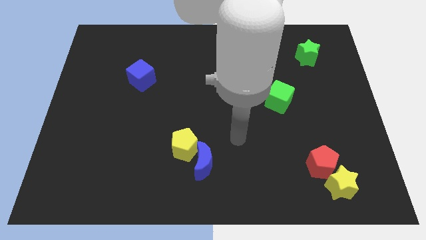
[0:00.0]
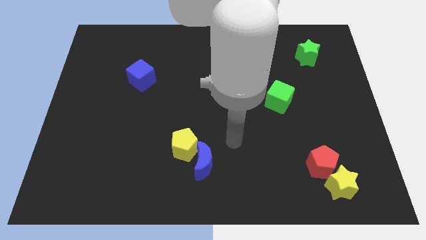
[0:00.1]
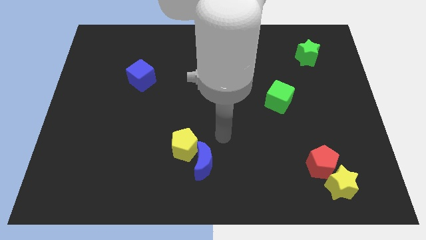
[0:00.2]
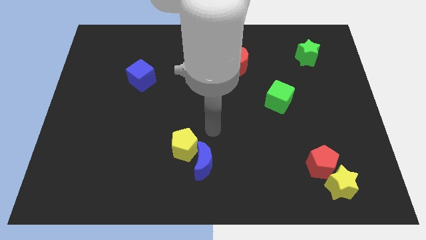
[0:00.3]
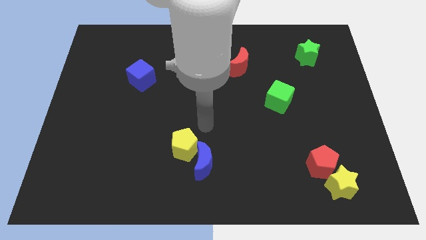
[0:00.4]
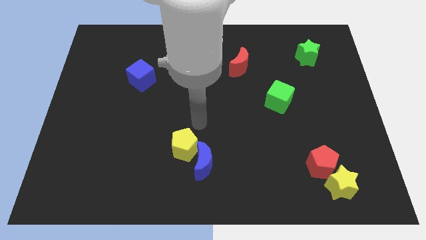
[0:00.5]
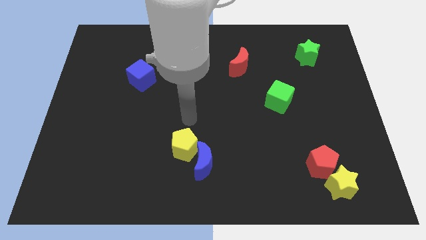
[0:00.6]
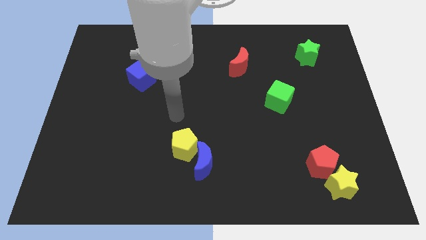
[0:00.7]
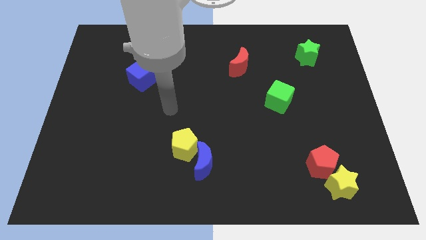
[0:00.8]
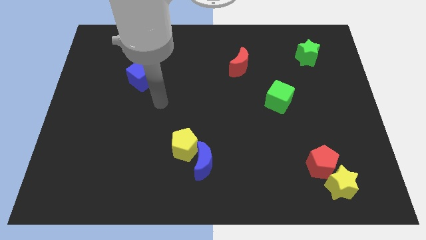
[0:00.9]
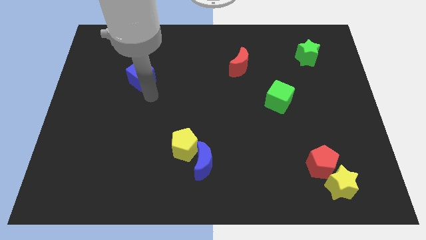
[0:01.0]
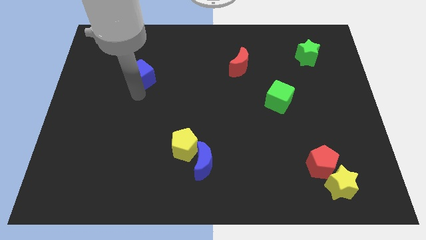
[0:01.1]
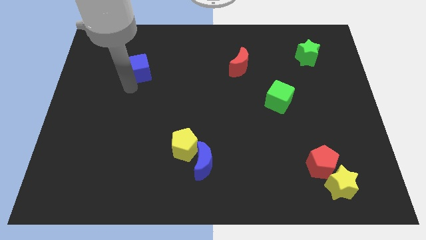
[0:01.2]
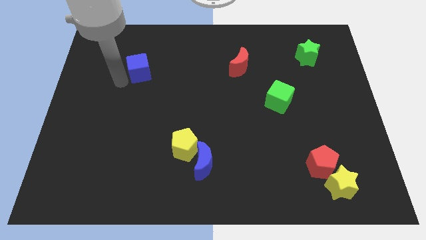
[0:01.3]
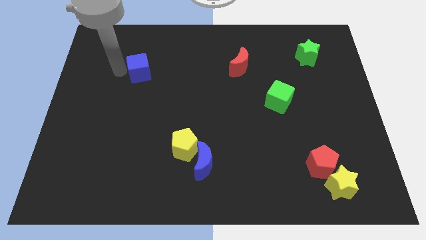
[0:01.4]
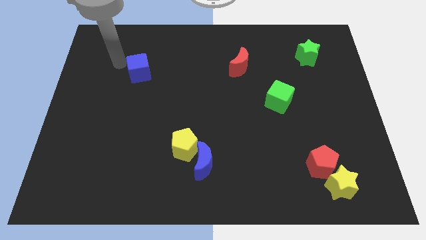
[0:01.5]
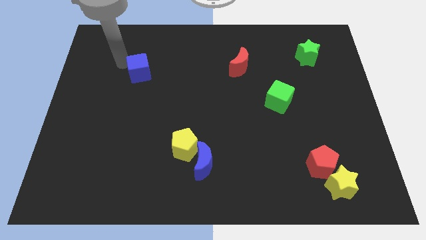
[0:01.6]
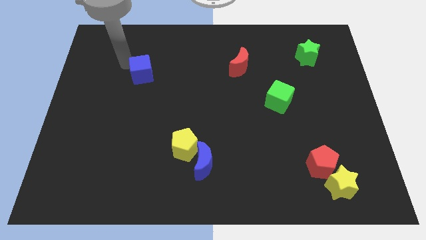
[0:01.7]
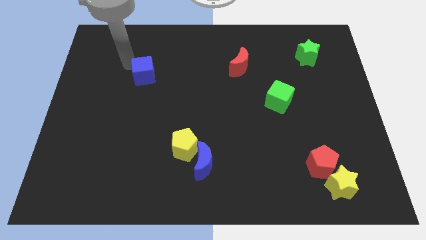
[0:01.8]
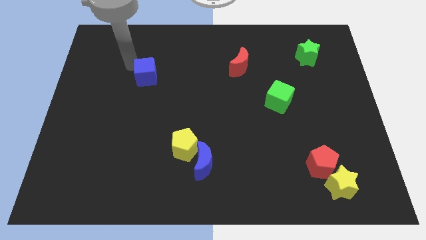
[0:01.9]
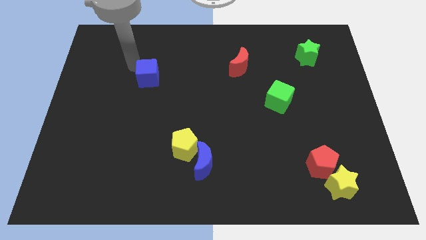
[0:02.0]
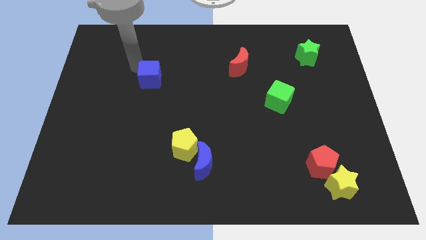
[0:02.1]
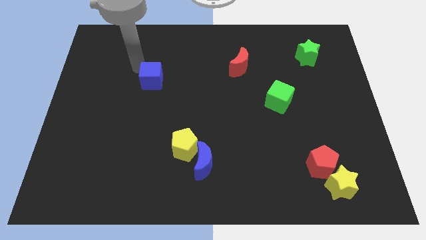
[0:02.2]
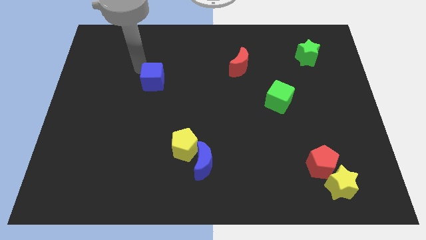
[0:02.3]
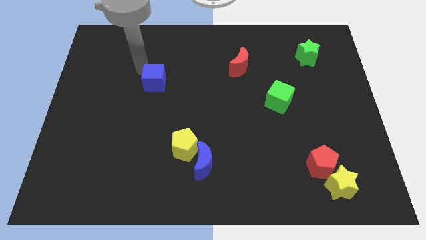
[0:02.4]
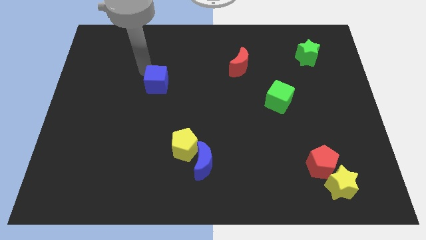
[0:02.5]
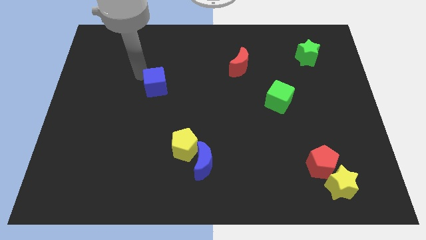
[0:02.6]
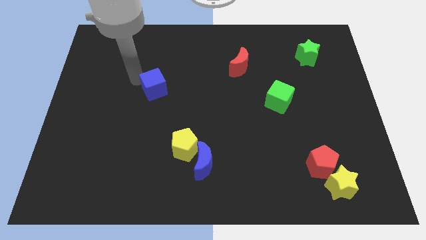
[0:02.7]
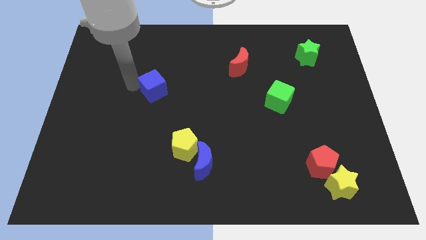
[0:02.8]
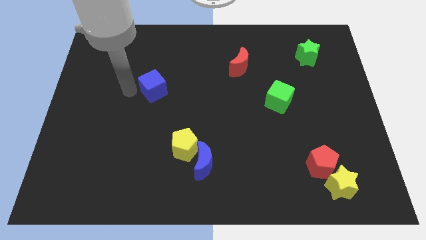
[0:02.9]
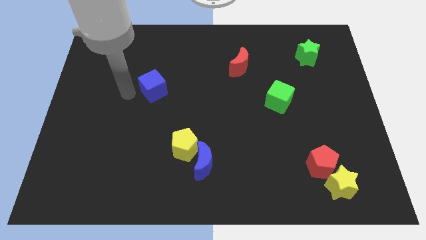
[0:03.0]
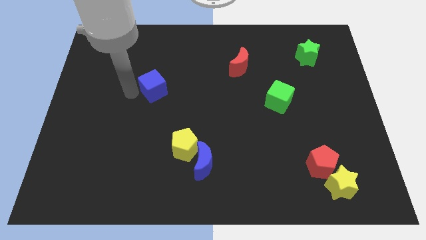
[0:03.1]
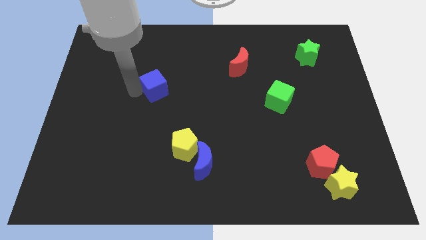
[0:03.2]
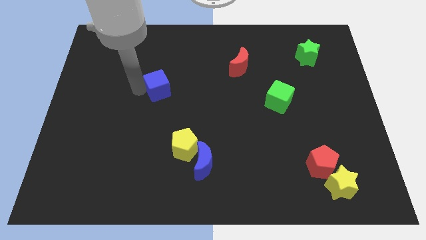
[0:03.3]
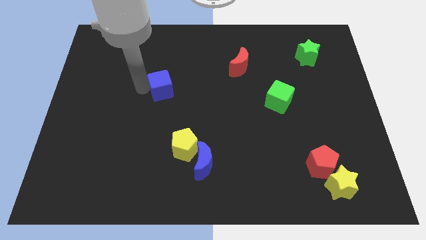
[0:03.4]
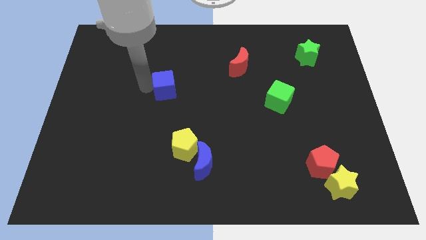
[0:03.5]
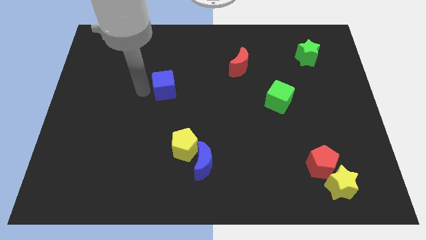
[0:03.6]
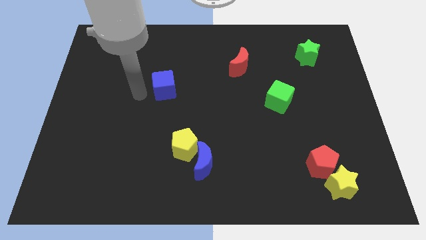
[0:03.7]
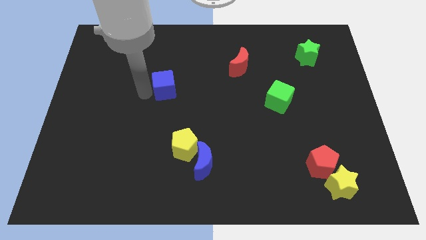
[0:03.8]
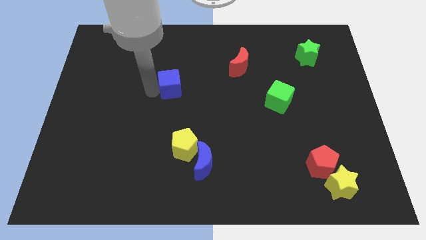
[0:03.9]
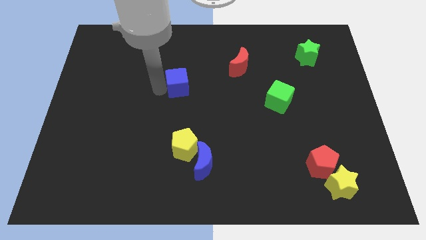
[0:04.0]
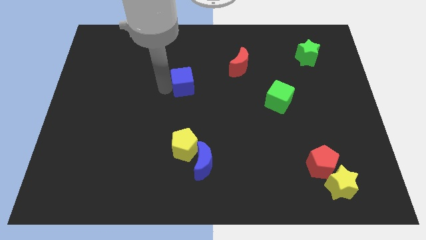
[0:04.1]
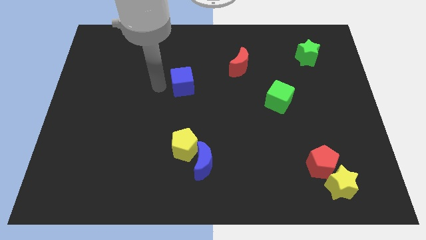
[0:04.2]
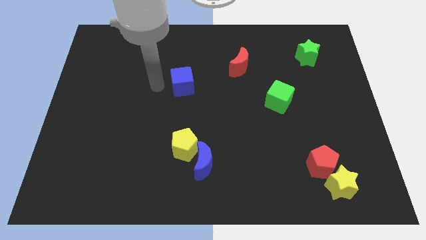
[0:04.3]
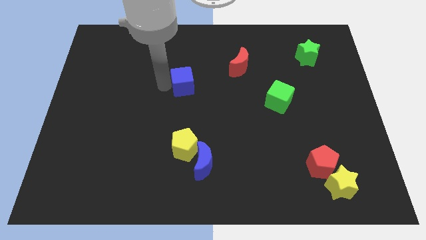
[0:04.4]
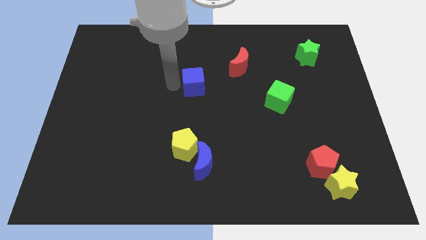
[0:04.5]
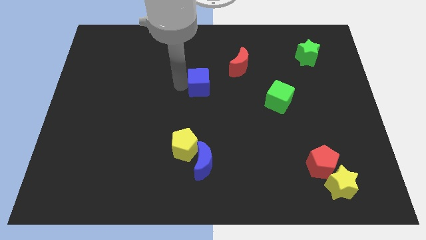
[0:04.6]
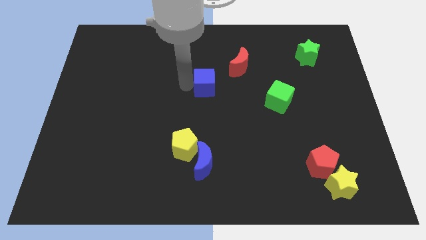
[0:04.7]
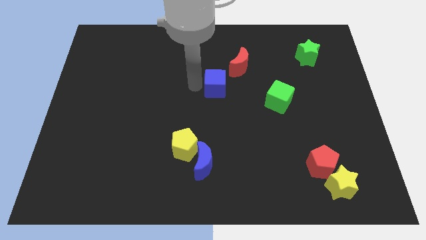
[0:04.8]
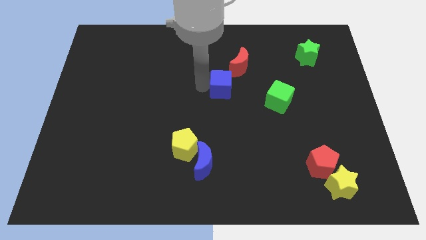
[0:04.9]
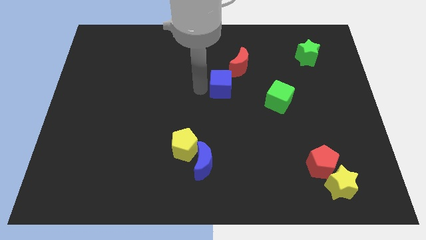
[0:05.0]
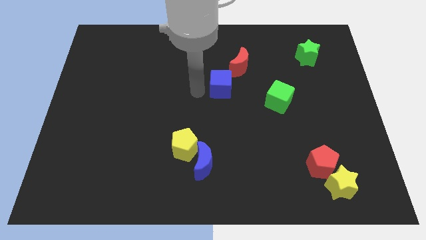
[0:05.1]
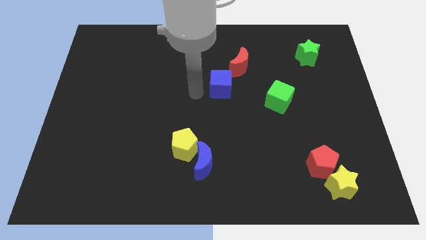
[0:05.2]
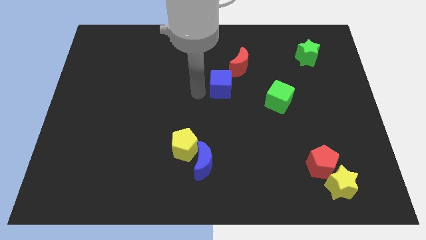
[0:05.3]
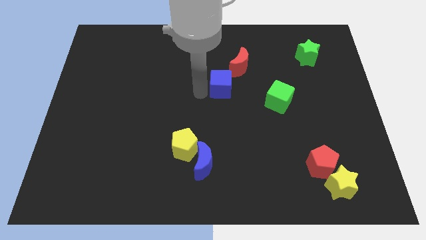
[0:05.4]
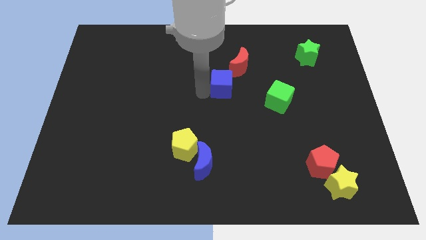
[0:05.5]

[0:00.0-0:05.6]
slide the blue cube right

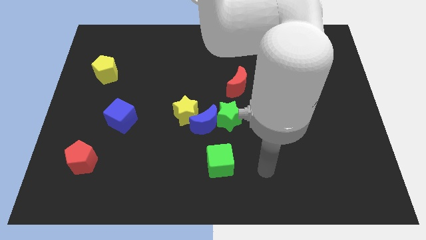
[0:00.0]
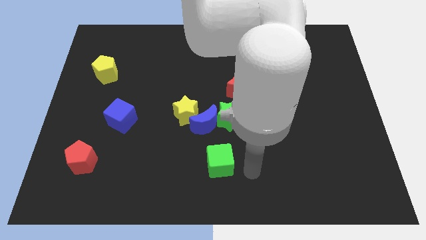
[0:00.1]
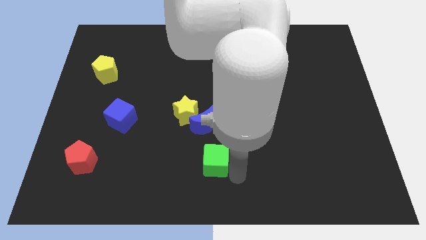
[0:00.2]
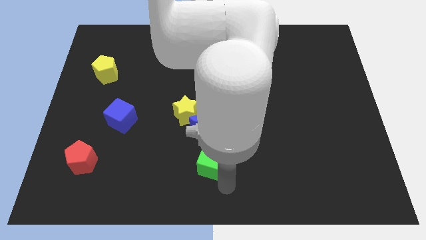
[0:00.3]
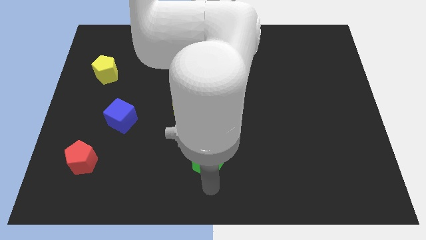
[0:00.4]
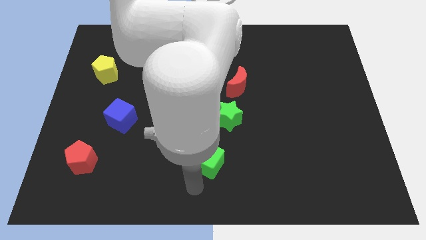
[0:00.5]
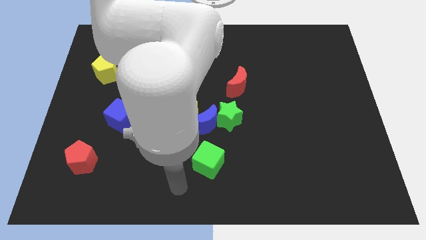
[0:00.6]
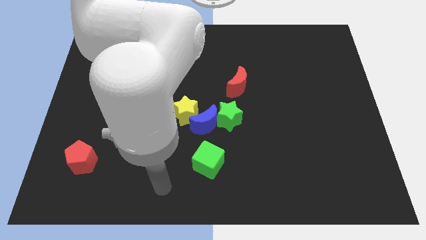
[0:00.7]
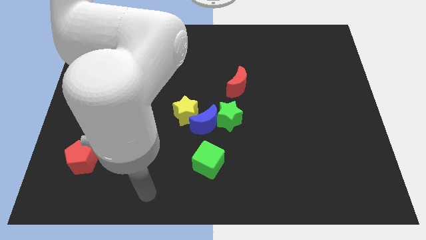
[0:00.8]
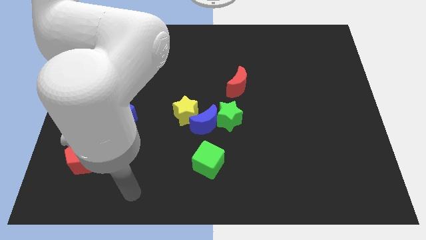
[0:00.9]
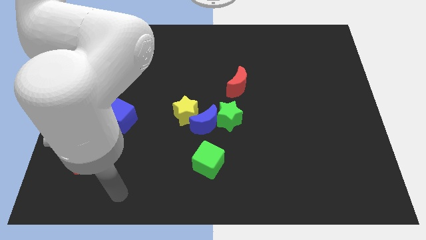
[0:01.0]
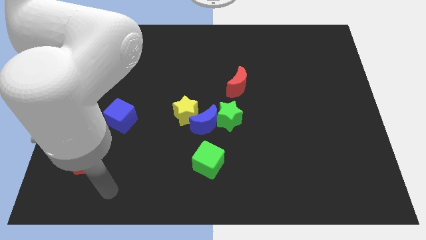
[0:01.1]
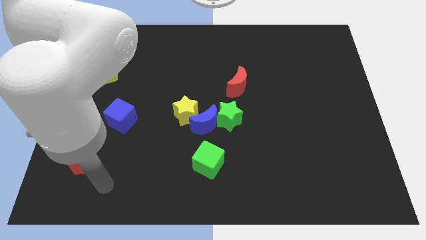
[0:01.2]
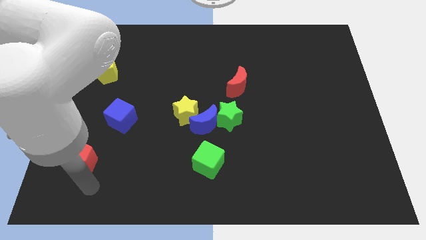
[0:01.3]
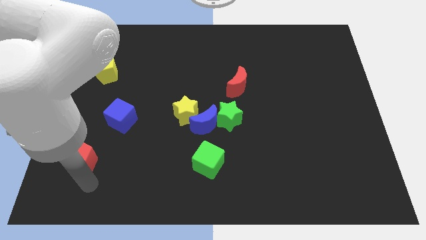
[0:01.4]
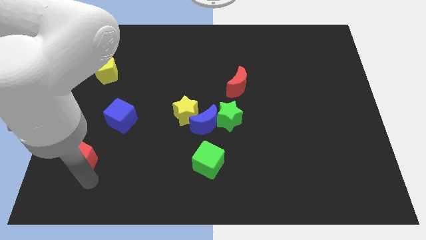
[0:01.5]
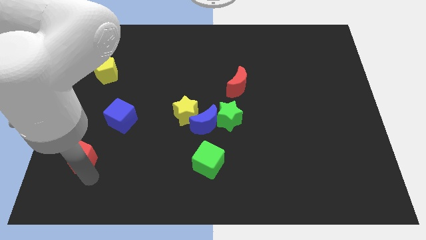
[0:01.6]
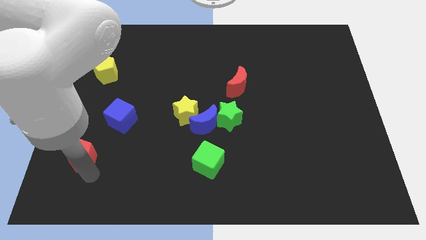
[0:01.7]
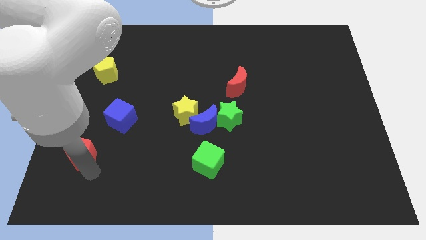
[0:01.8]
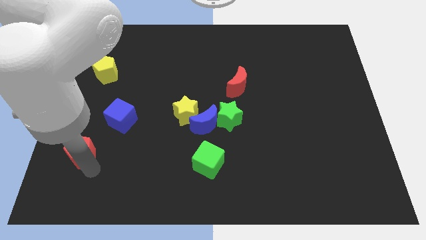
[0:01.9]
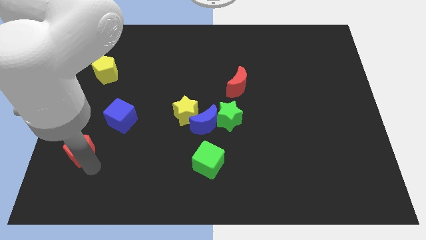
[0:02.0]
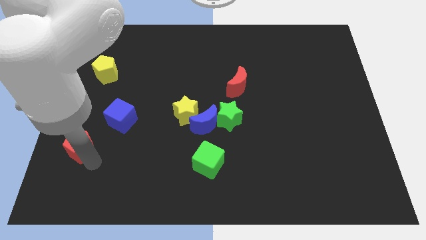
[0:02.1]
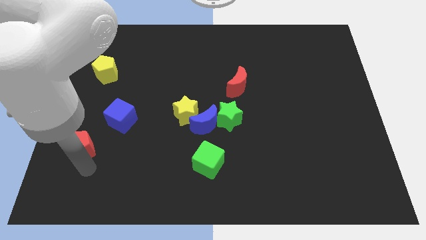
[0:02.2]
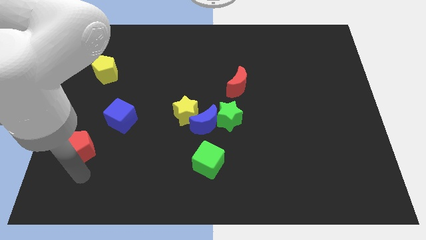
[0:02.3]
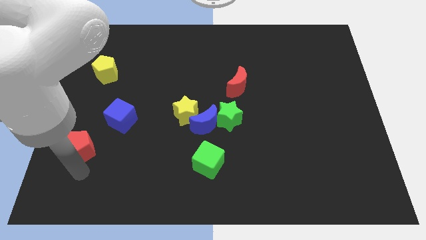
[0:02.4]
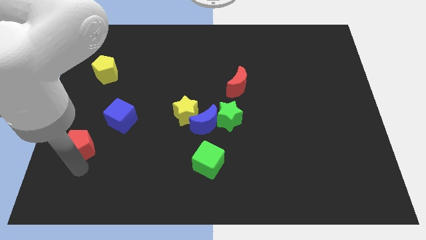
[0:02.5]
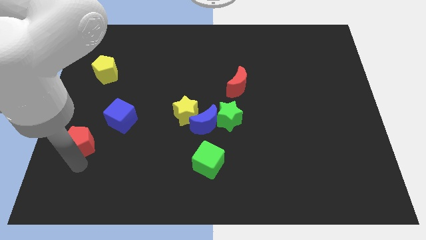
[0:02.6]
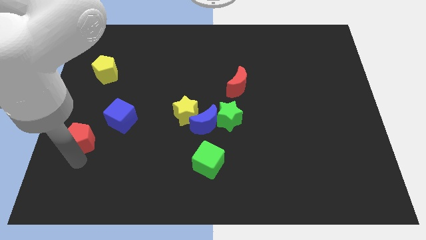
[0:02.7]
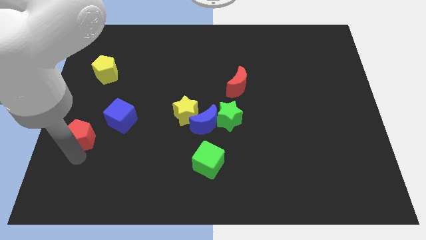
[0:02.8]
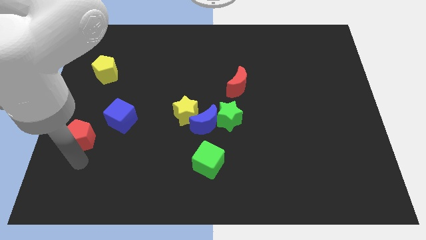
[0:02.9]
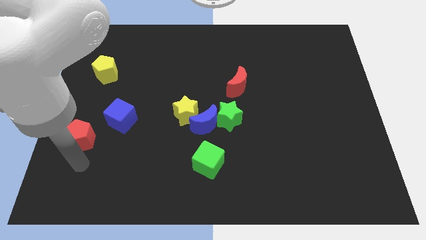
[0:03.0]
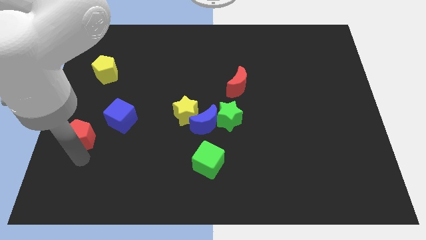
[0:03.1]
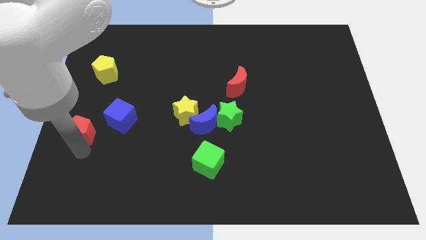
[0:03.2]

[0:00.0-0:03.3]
slightly move the red pentagon upwards
